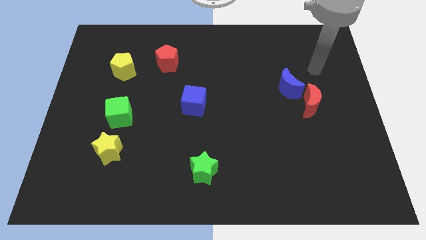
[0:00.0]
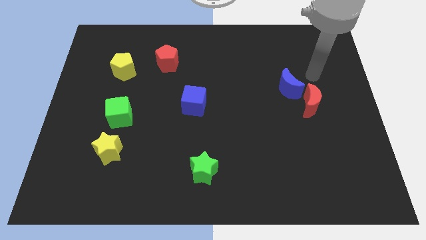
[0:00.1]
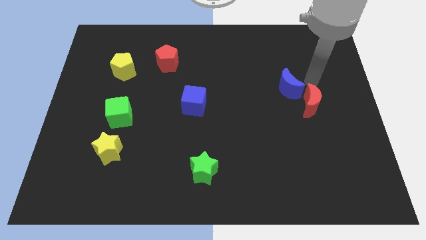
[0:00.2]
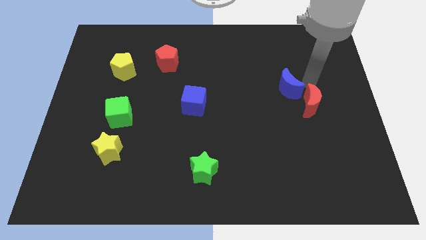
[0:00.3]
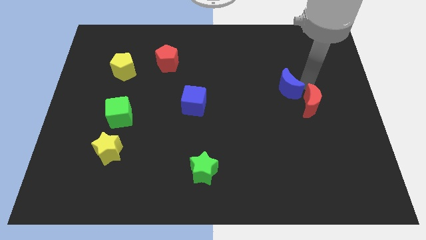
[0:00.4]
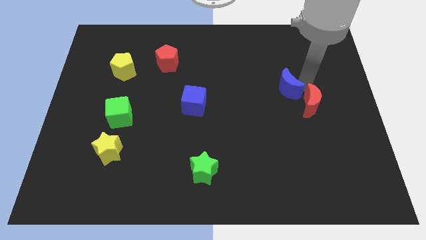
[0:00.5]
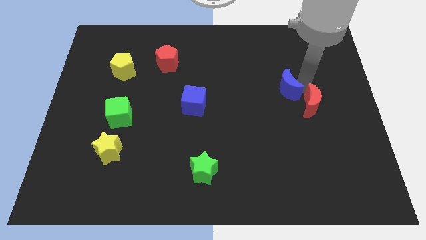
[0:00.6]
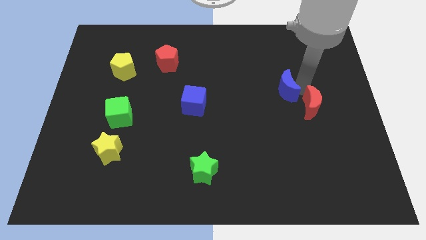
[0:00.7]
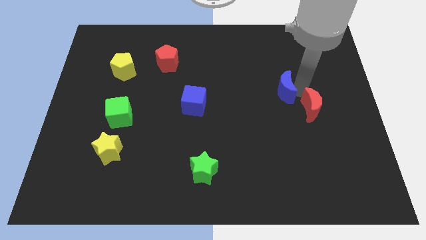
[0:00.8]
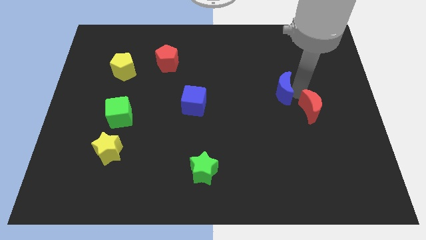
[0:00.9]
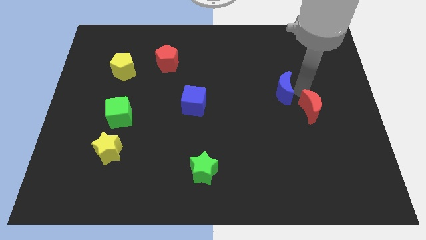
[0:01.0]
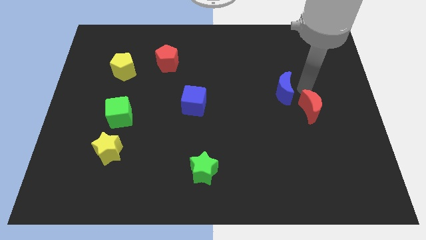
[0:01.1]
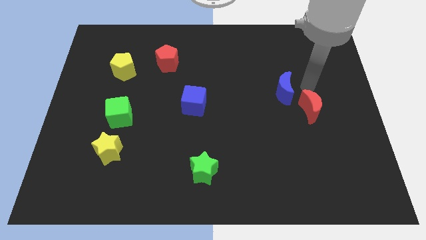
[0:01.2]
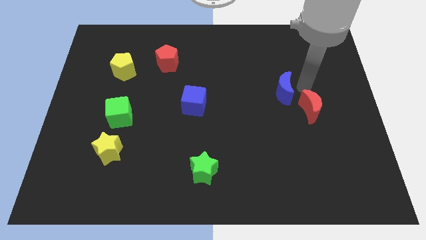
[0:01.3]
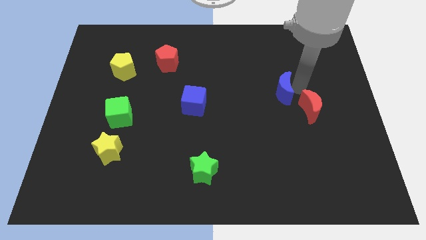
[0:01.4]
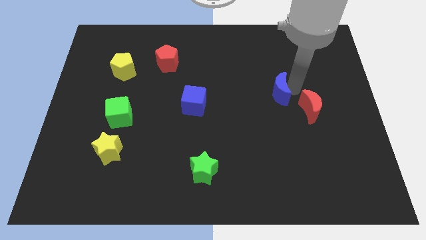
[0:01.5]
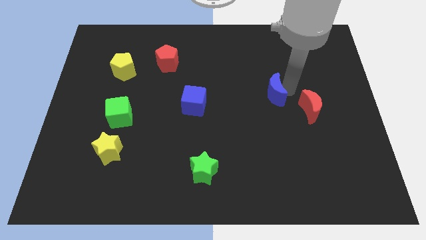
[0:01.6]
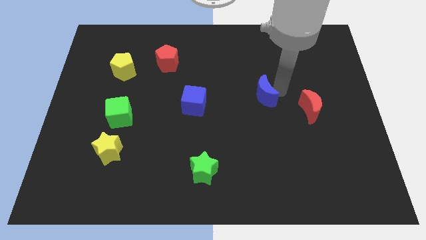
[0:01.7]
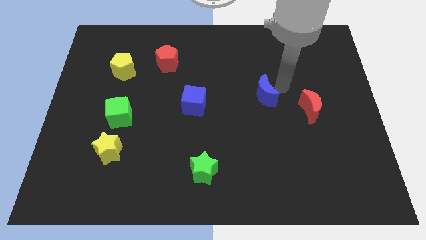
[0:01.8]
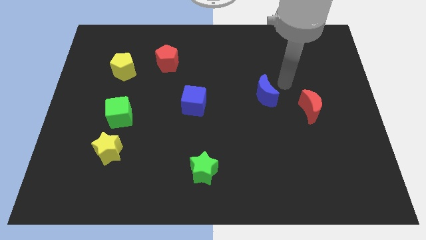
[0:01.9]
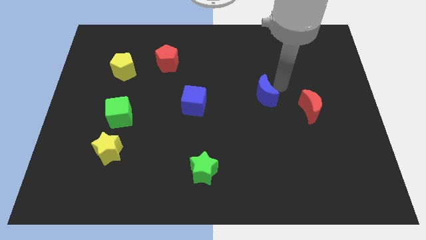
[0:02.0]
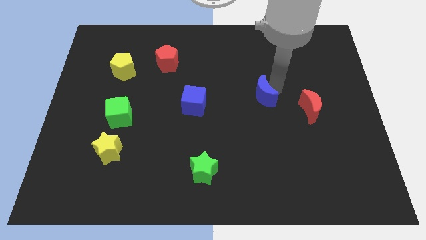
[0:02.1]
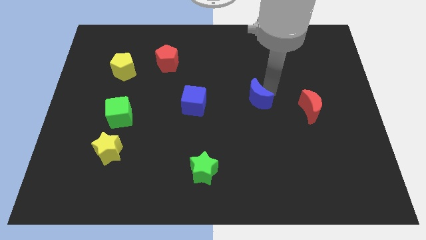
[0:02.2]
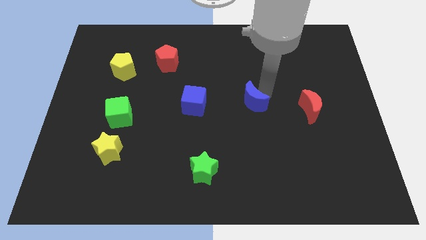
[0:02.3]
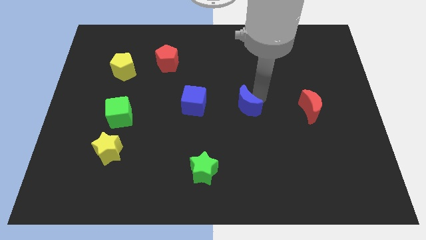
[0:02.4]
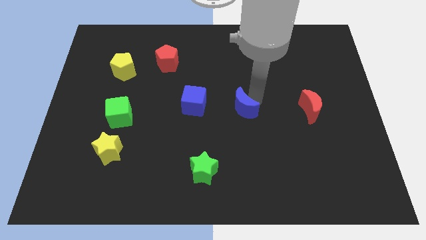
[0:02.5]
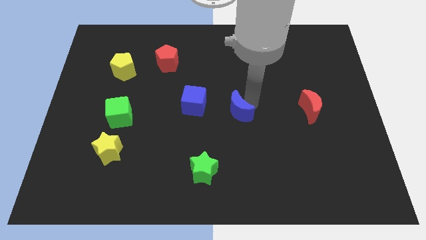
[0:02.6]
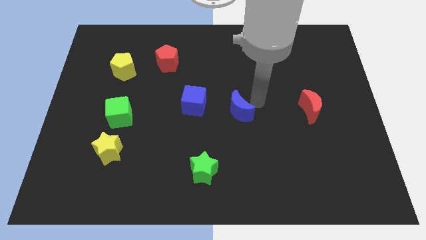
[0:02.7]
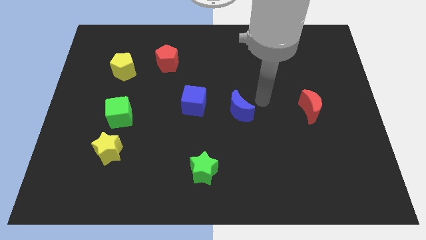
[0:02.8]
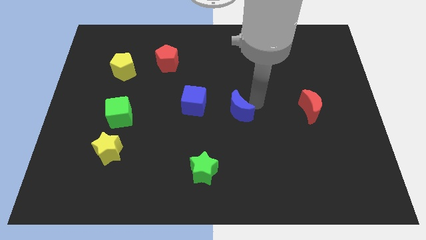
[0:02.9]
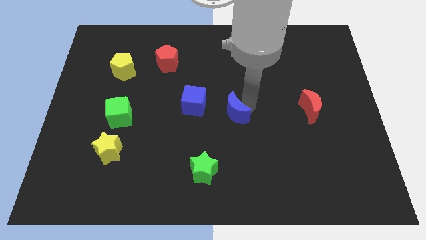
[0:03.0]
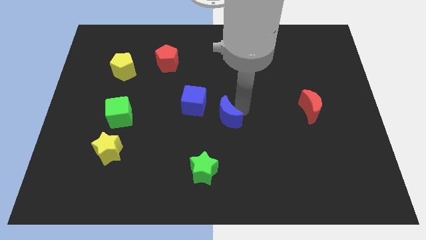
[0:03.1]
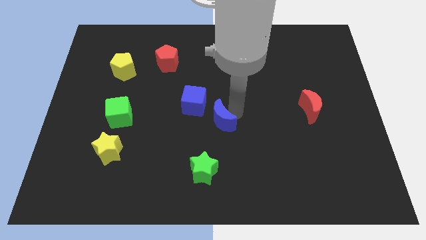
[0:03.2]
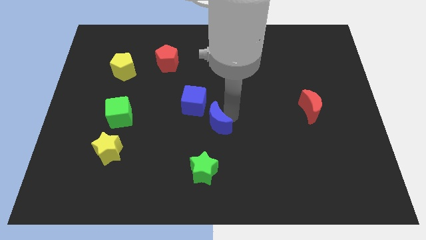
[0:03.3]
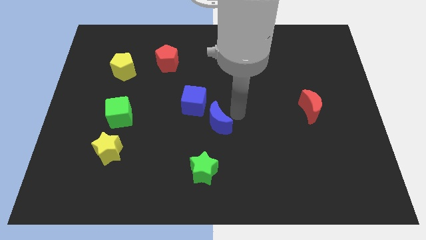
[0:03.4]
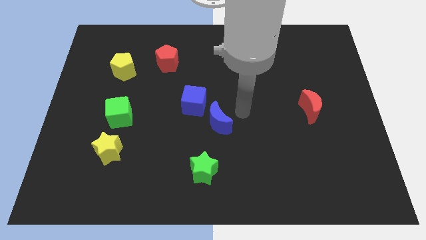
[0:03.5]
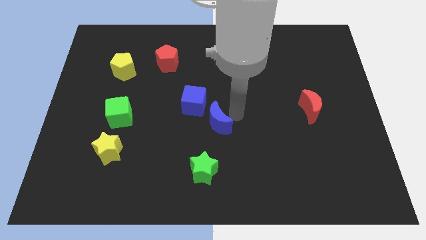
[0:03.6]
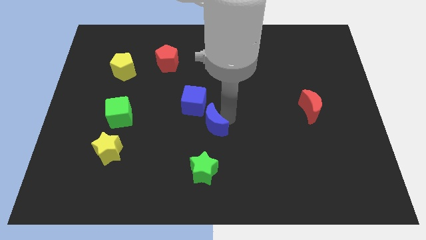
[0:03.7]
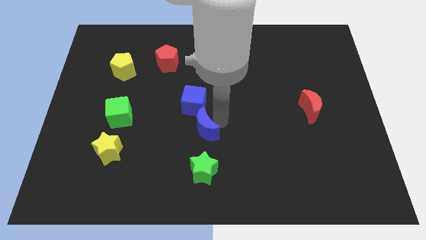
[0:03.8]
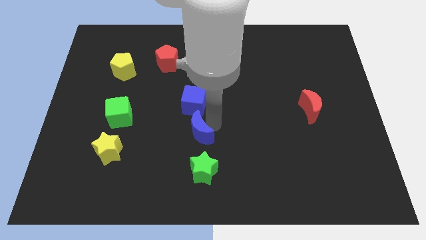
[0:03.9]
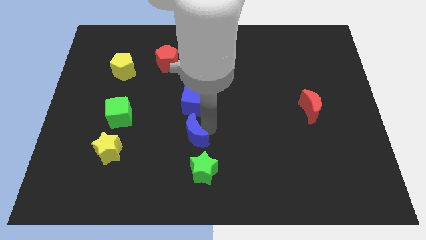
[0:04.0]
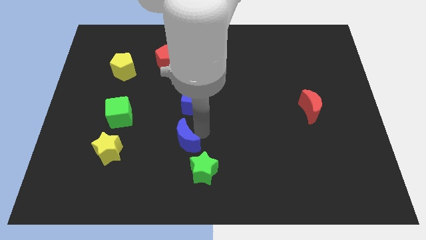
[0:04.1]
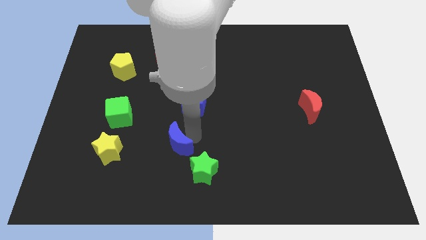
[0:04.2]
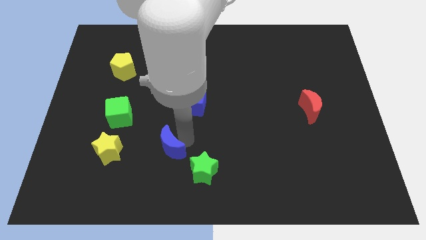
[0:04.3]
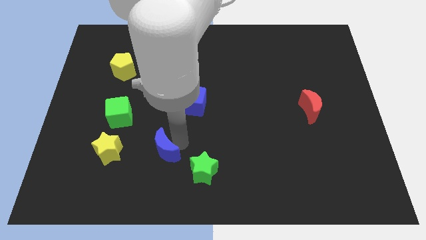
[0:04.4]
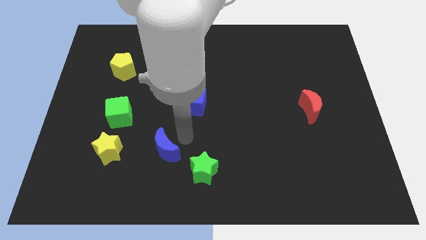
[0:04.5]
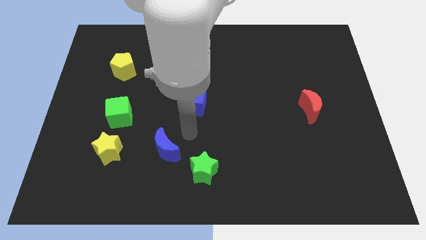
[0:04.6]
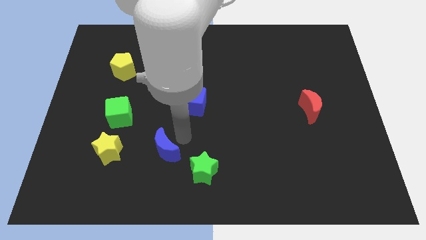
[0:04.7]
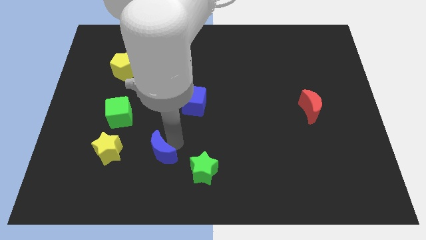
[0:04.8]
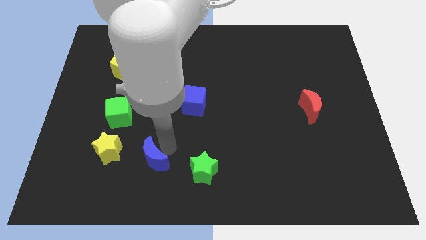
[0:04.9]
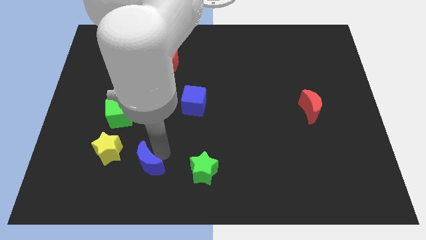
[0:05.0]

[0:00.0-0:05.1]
slide the blue moon diagonally down and to the right of the yellow star

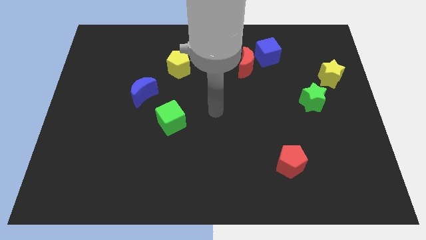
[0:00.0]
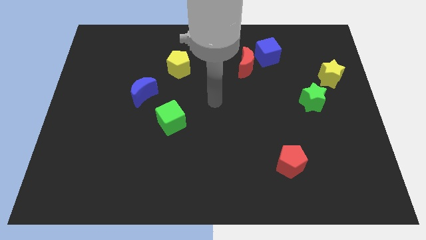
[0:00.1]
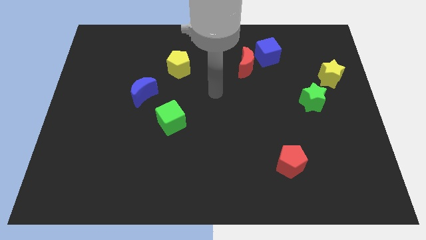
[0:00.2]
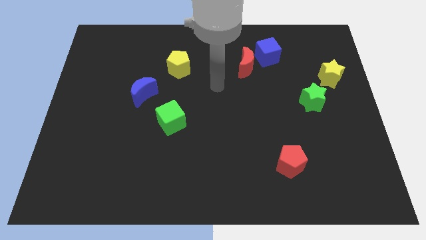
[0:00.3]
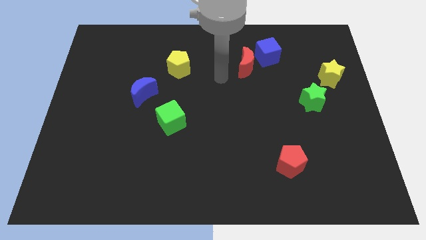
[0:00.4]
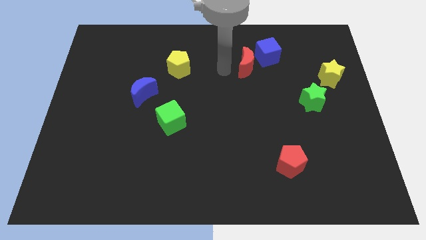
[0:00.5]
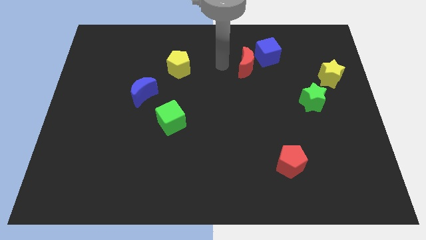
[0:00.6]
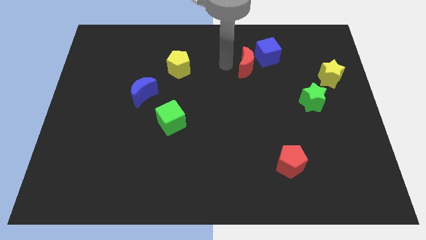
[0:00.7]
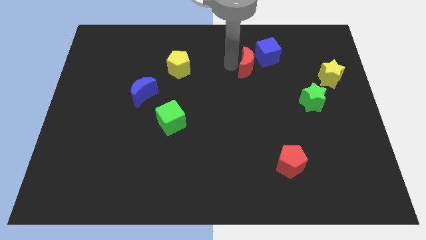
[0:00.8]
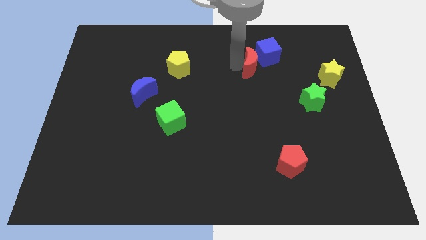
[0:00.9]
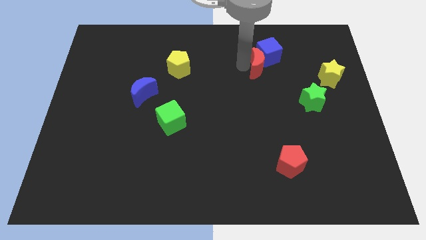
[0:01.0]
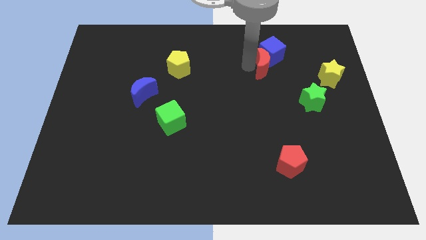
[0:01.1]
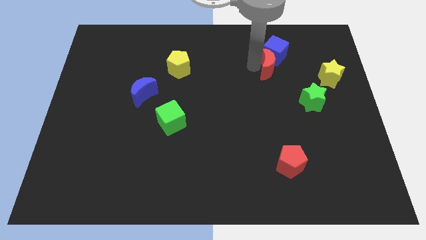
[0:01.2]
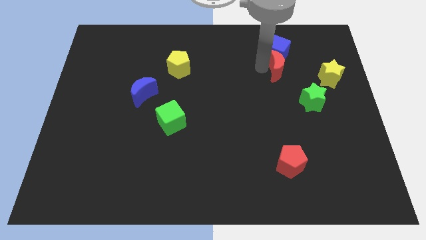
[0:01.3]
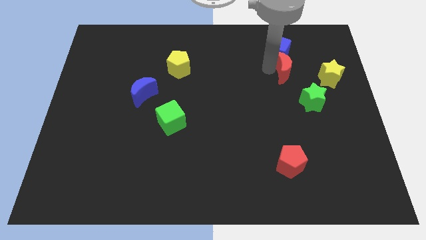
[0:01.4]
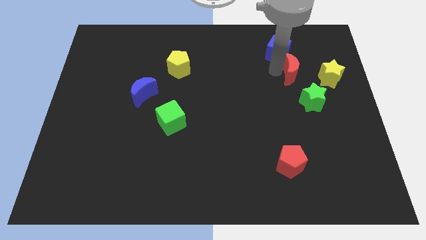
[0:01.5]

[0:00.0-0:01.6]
slide the red moon to the top side of the green star

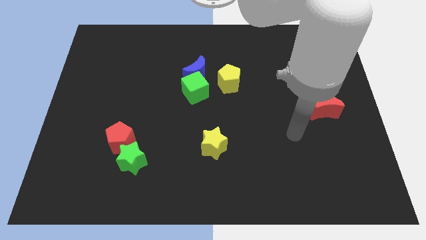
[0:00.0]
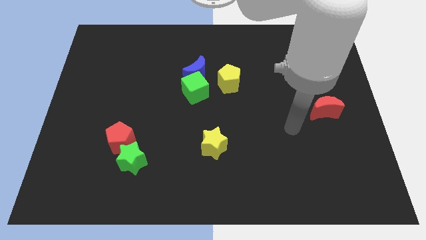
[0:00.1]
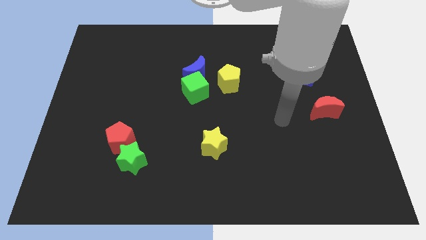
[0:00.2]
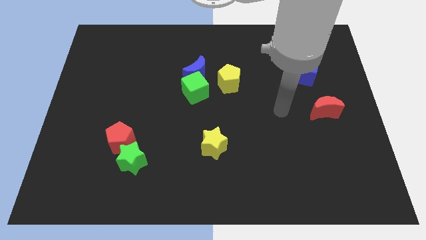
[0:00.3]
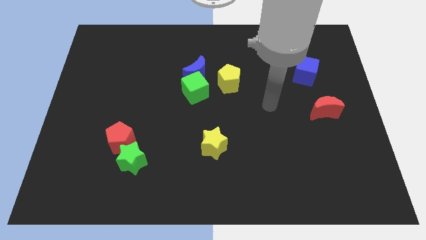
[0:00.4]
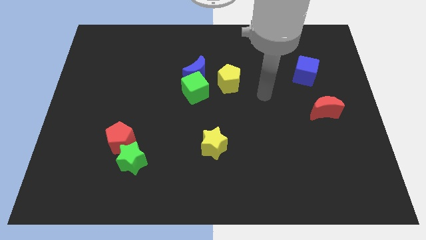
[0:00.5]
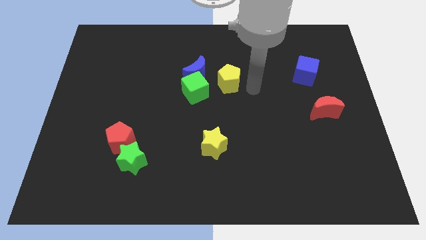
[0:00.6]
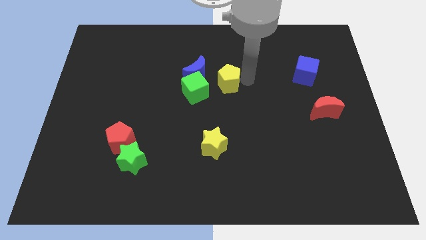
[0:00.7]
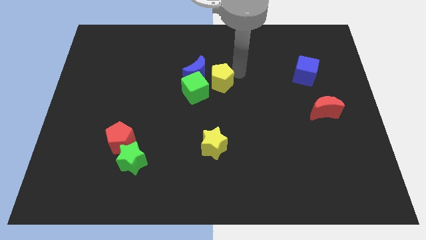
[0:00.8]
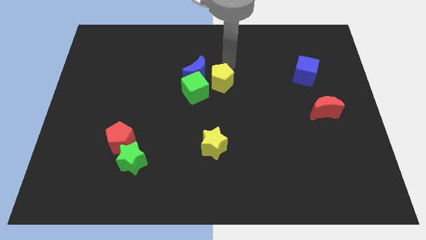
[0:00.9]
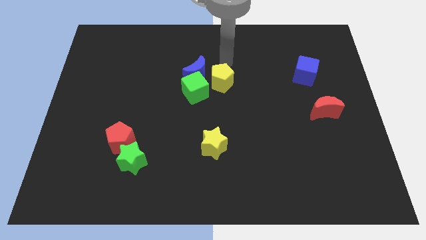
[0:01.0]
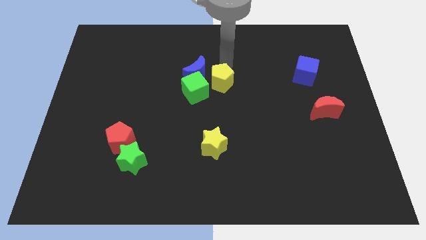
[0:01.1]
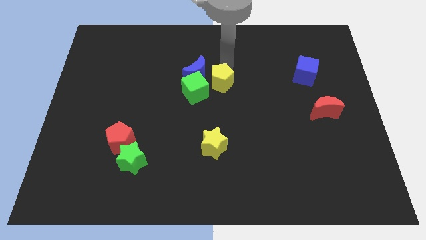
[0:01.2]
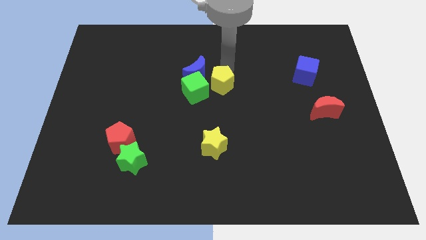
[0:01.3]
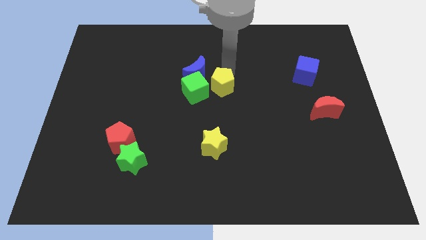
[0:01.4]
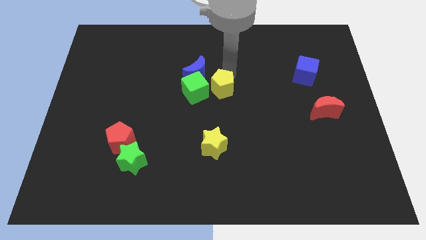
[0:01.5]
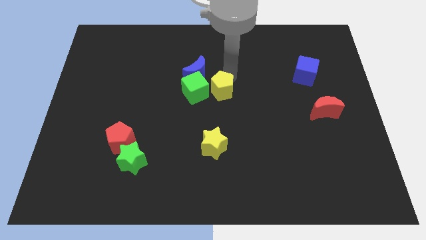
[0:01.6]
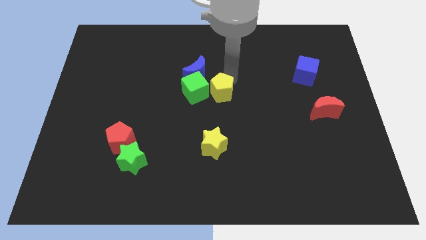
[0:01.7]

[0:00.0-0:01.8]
push the yellow pentagon to the bottom right of the green cube
